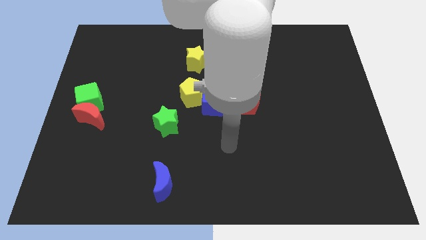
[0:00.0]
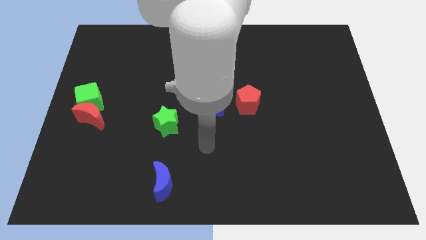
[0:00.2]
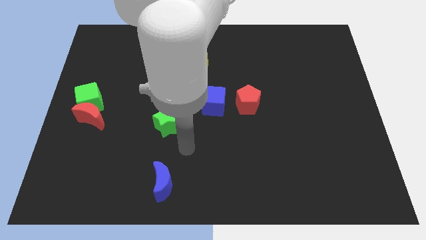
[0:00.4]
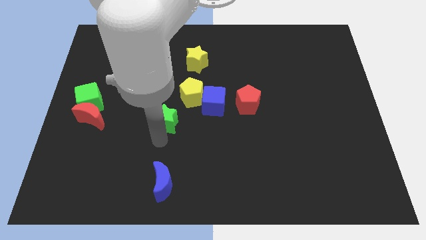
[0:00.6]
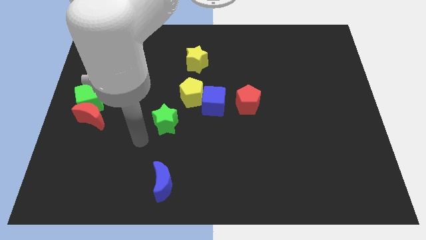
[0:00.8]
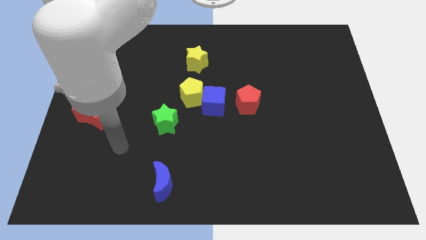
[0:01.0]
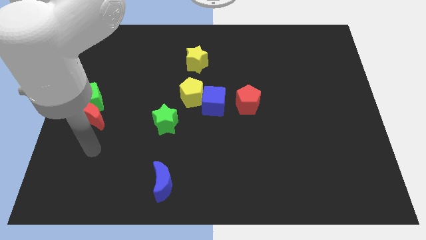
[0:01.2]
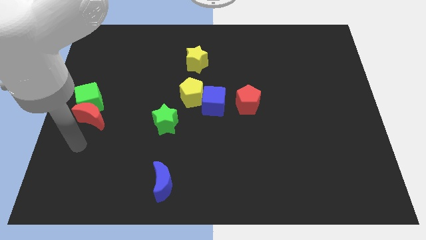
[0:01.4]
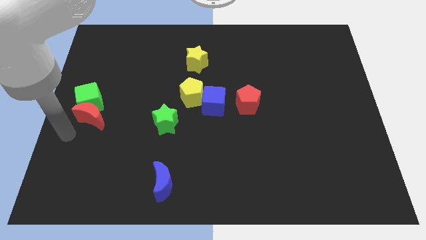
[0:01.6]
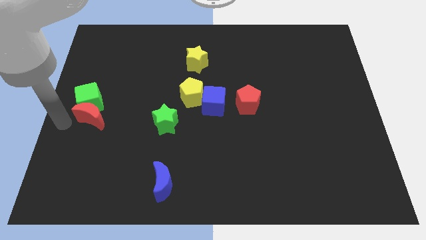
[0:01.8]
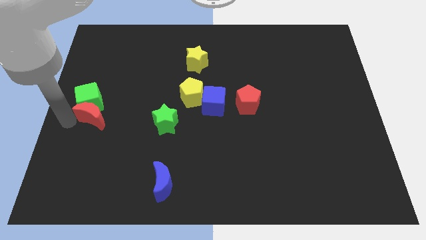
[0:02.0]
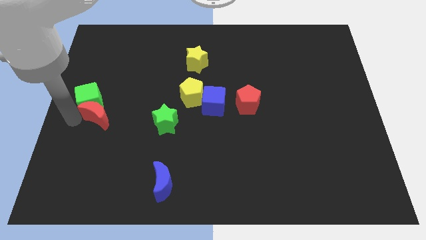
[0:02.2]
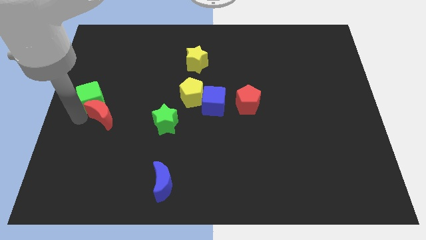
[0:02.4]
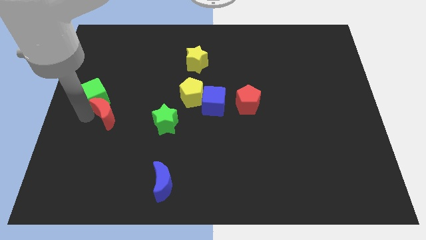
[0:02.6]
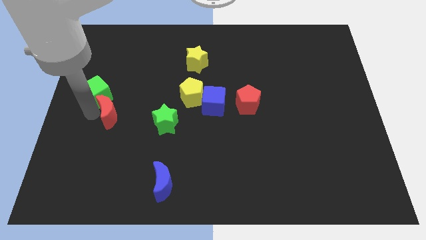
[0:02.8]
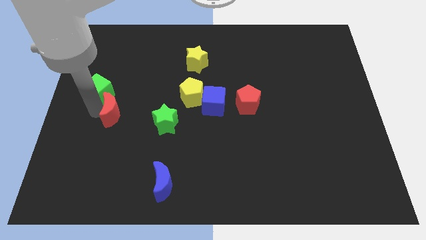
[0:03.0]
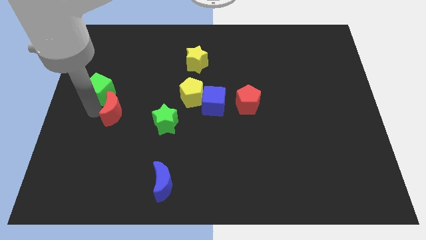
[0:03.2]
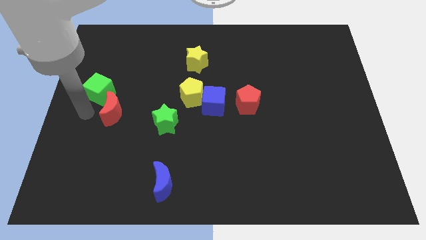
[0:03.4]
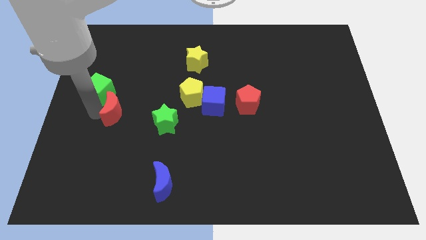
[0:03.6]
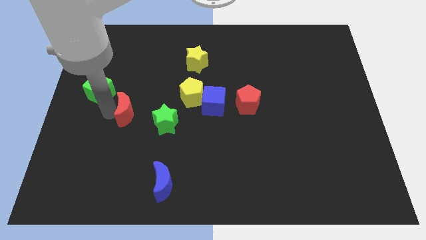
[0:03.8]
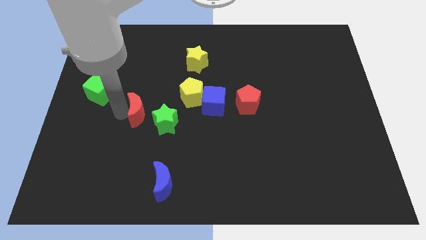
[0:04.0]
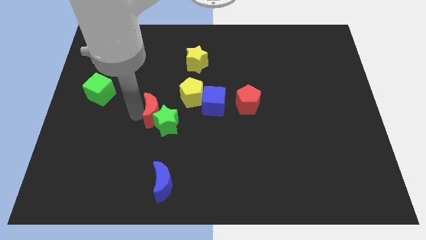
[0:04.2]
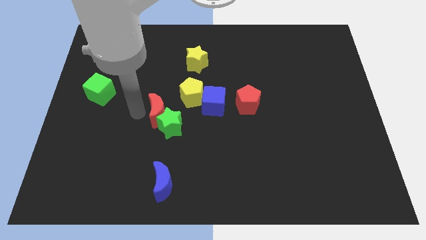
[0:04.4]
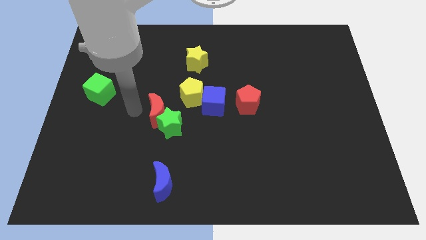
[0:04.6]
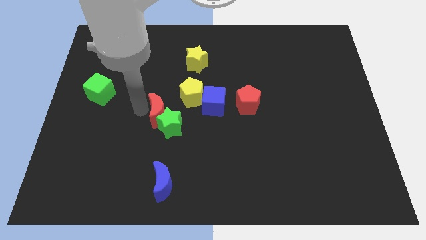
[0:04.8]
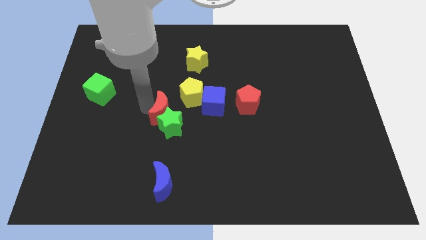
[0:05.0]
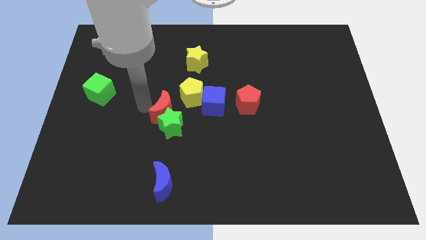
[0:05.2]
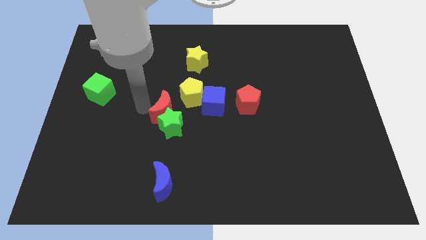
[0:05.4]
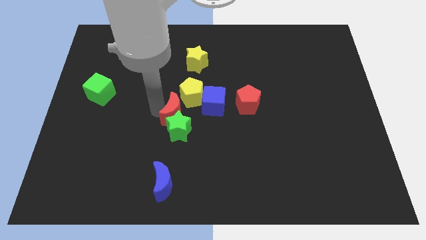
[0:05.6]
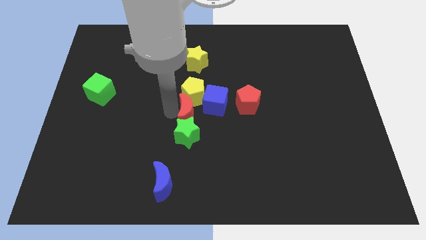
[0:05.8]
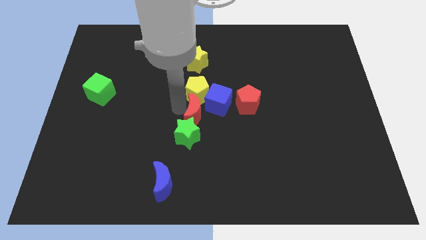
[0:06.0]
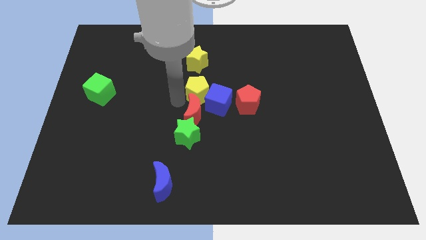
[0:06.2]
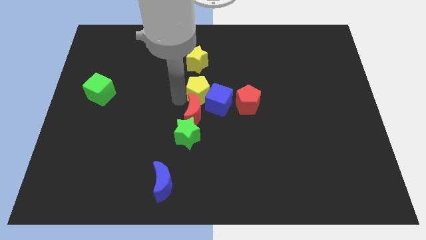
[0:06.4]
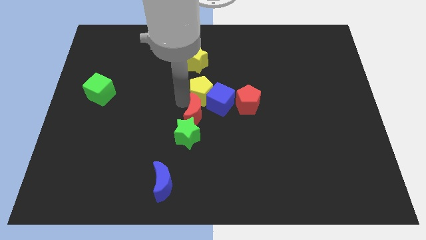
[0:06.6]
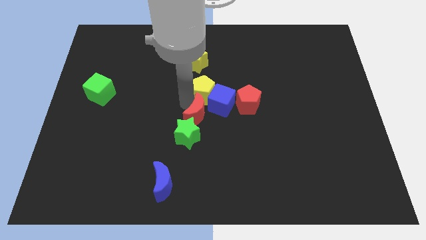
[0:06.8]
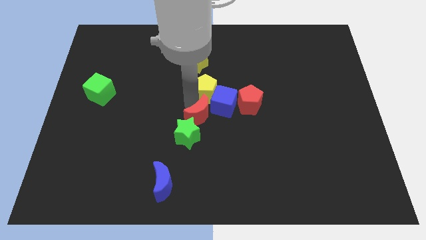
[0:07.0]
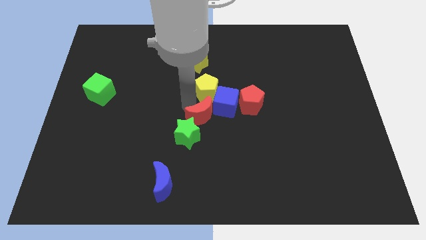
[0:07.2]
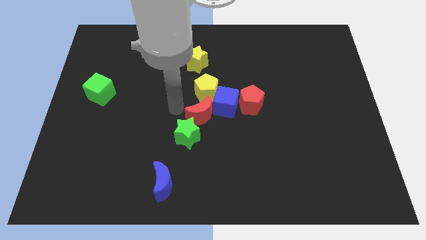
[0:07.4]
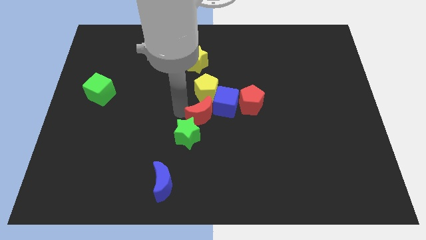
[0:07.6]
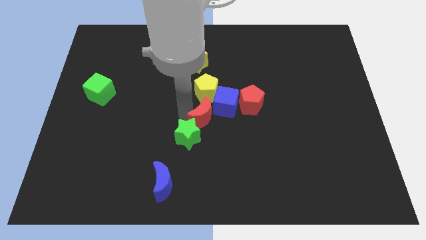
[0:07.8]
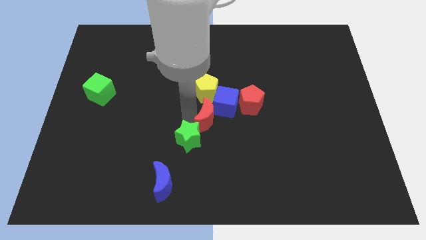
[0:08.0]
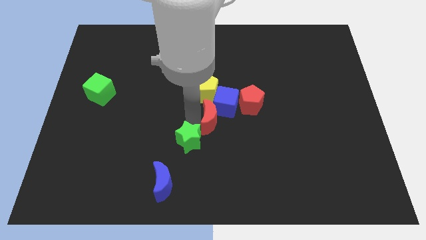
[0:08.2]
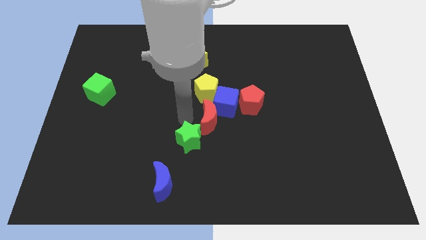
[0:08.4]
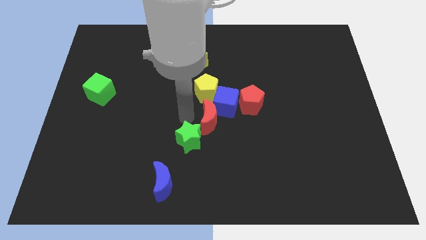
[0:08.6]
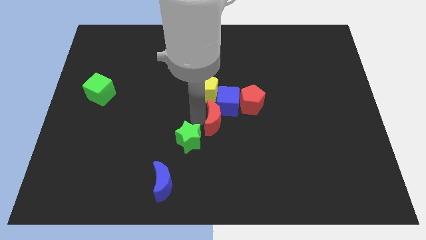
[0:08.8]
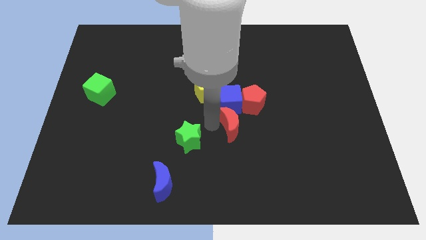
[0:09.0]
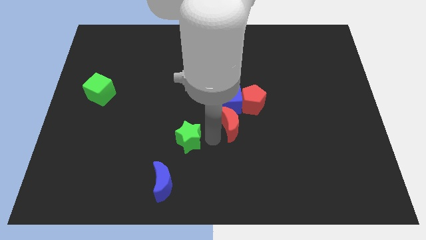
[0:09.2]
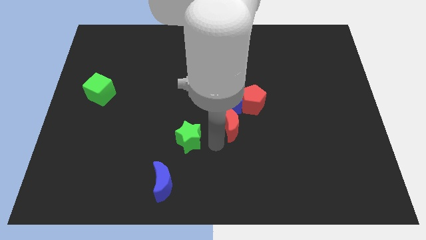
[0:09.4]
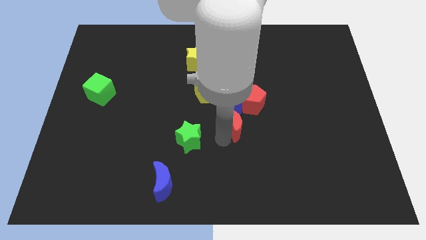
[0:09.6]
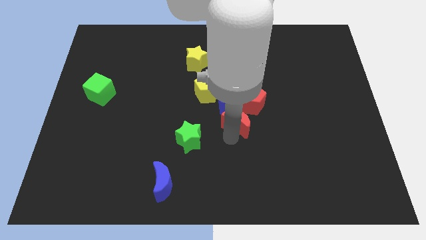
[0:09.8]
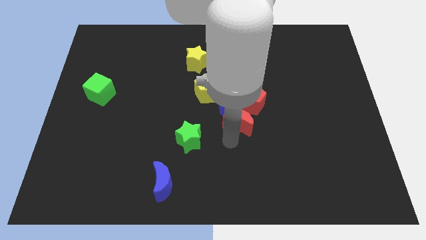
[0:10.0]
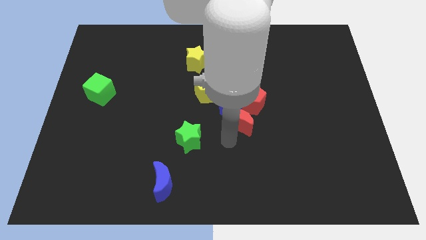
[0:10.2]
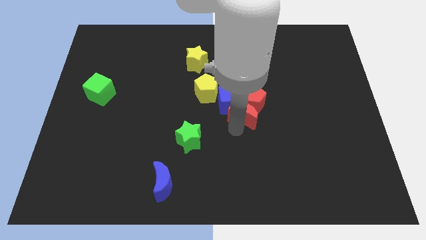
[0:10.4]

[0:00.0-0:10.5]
slide the red moon next to the red pentagon

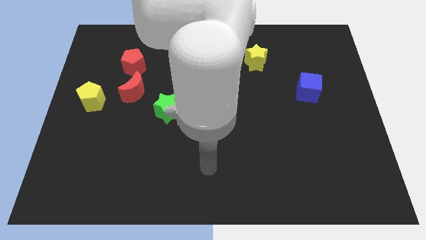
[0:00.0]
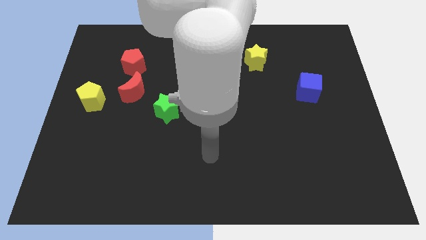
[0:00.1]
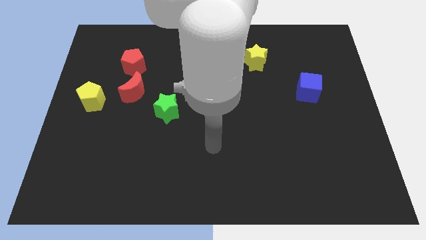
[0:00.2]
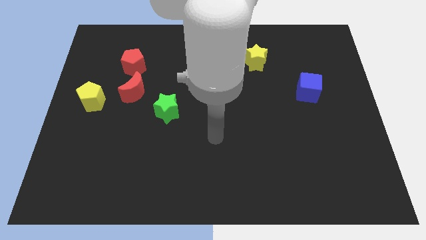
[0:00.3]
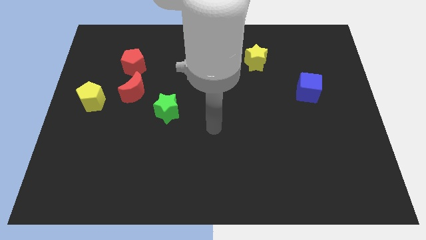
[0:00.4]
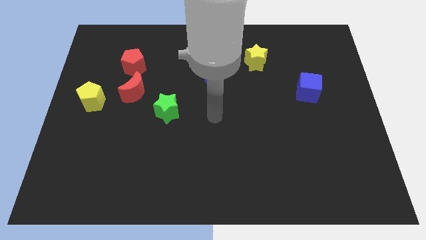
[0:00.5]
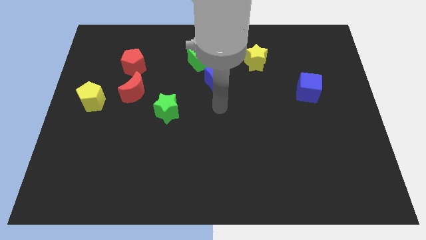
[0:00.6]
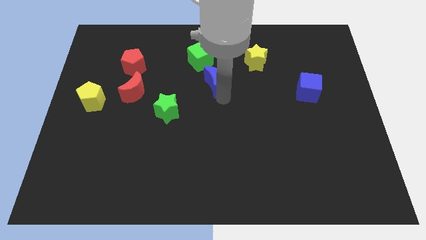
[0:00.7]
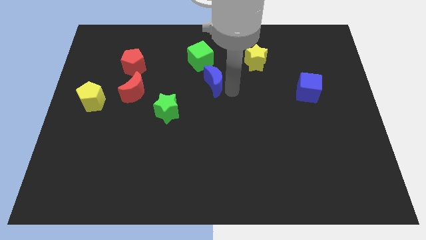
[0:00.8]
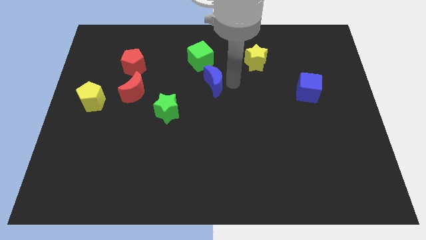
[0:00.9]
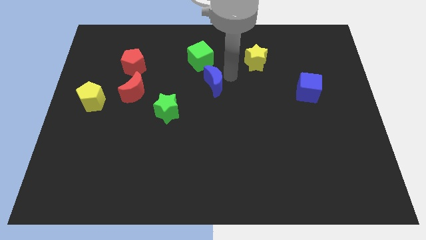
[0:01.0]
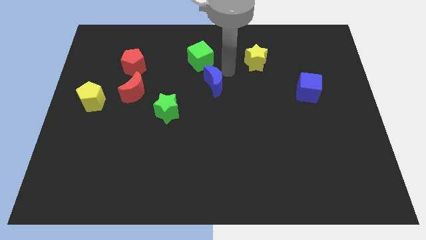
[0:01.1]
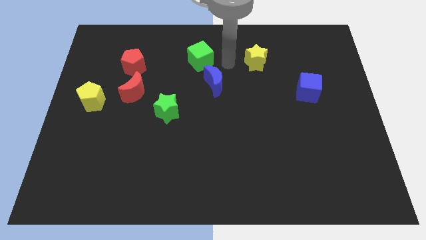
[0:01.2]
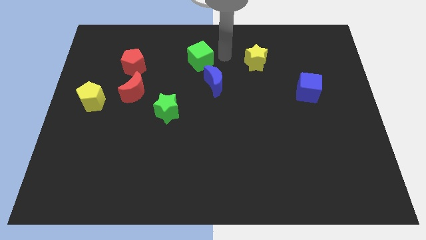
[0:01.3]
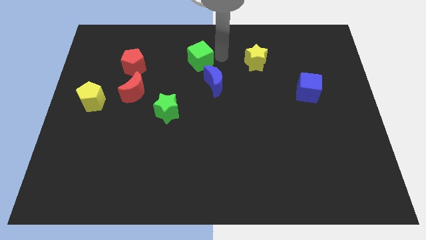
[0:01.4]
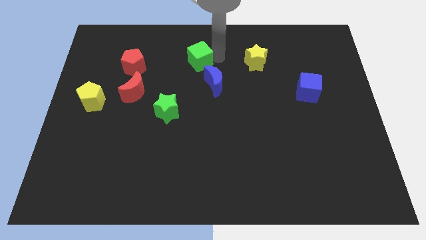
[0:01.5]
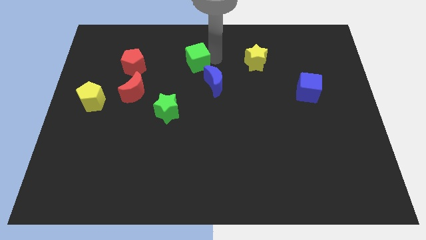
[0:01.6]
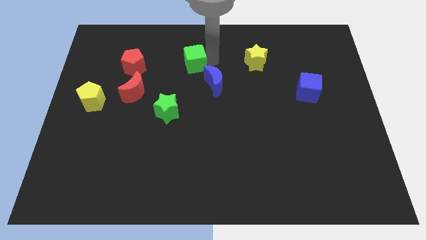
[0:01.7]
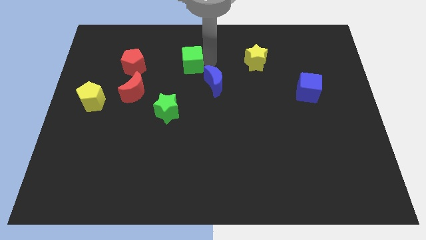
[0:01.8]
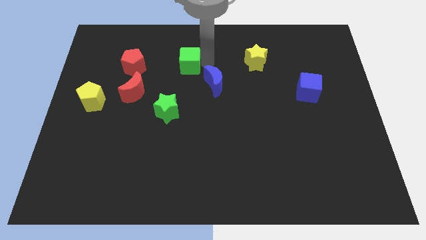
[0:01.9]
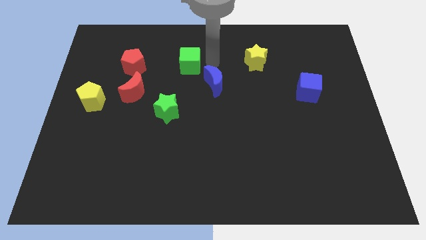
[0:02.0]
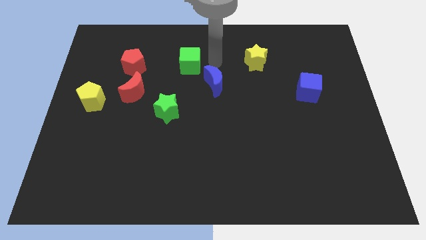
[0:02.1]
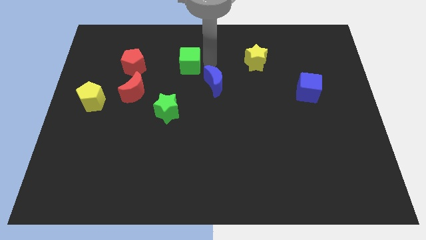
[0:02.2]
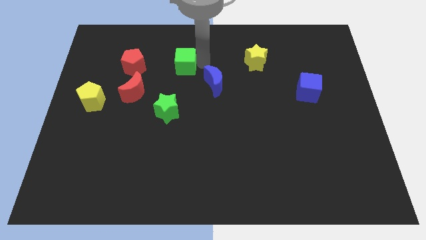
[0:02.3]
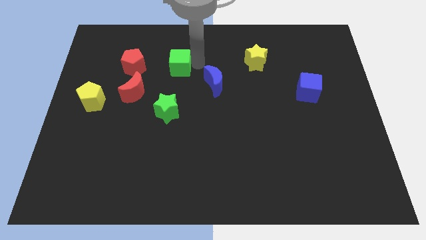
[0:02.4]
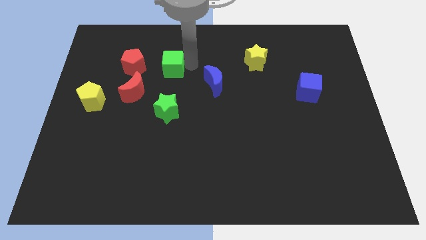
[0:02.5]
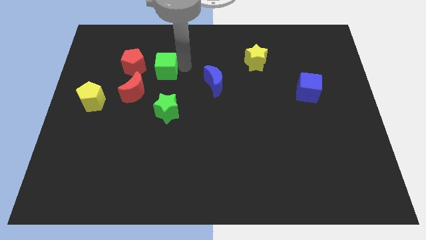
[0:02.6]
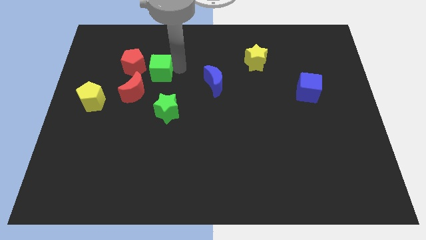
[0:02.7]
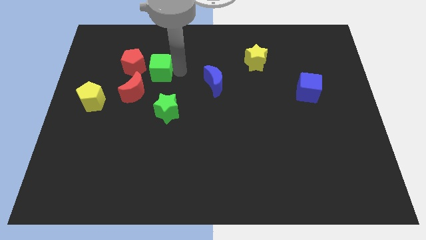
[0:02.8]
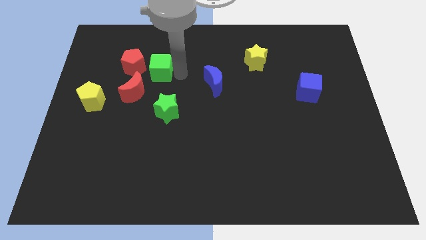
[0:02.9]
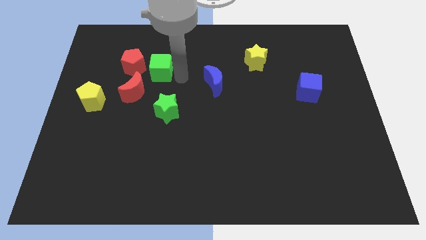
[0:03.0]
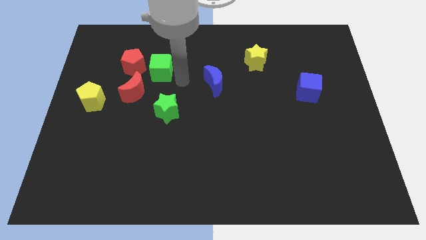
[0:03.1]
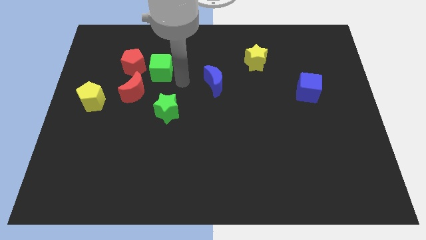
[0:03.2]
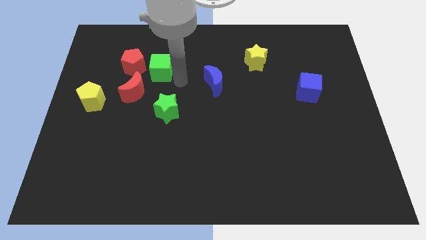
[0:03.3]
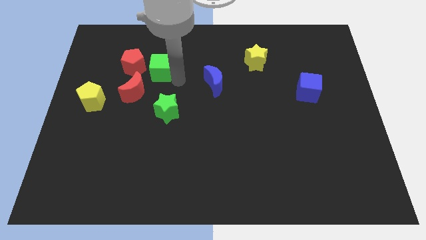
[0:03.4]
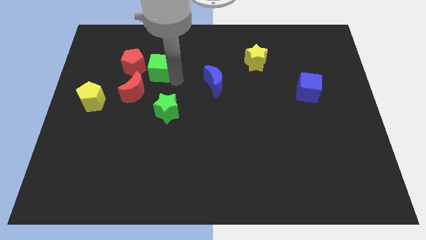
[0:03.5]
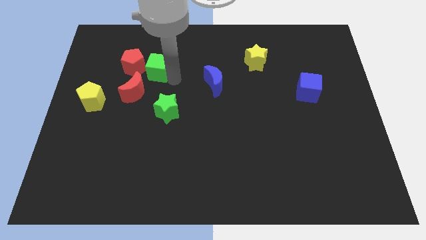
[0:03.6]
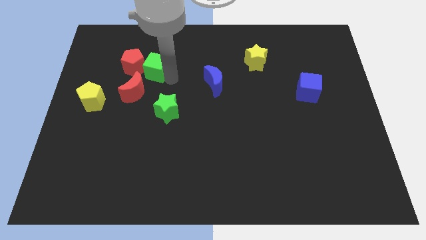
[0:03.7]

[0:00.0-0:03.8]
slide the green cube to the red pentagon
